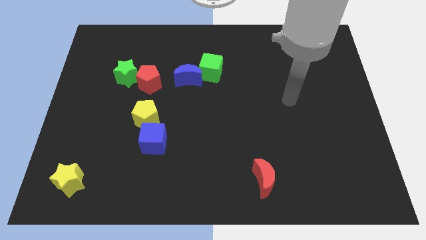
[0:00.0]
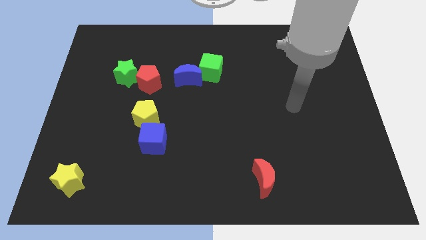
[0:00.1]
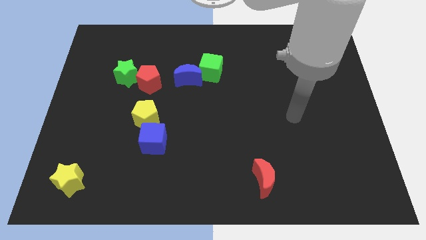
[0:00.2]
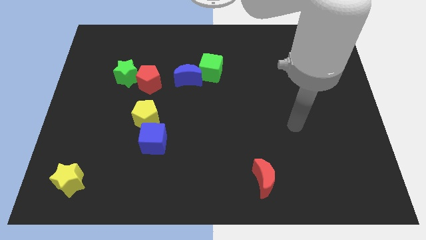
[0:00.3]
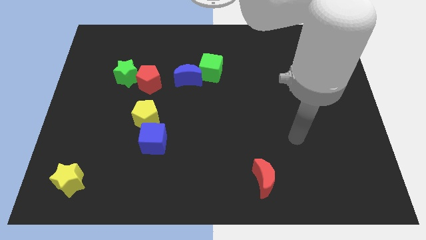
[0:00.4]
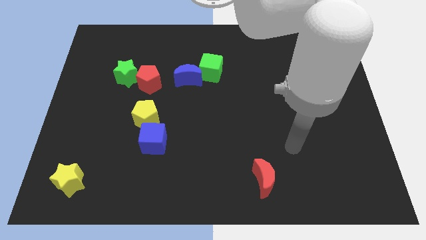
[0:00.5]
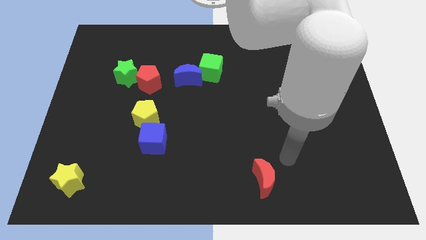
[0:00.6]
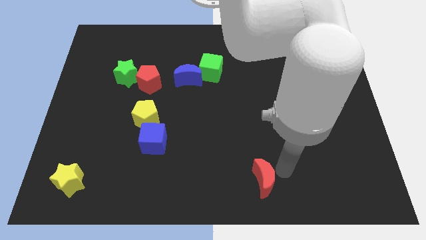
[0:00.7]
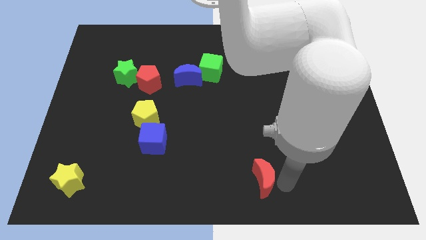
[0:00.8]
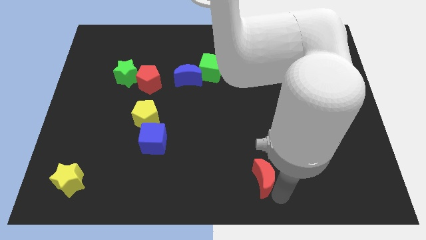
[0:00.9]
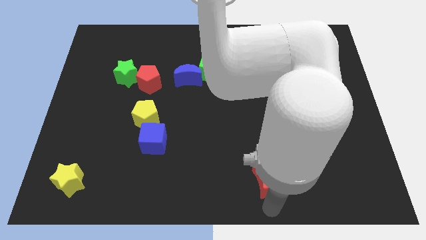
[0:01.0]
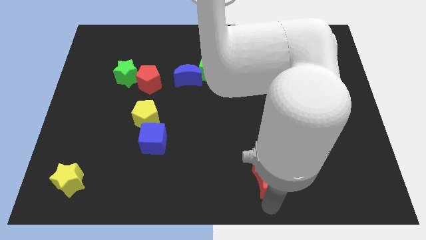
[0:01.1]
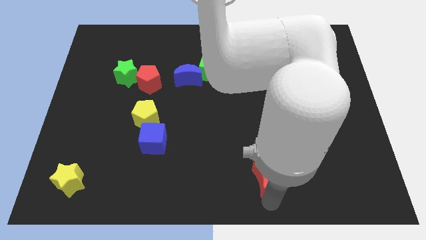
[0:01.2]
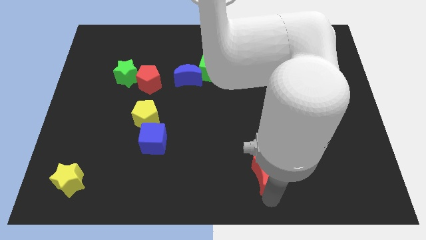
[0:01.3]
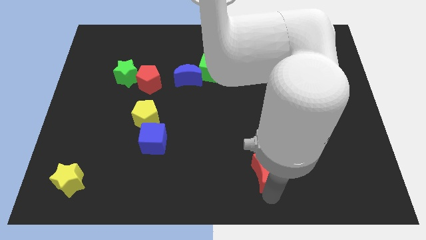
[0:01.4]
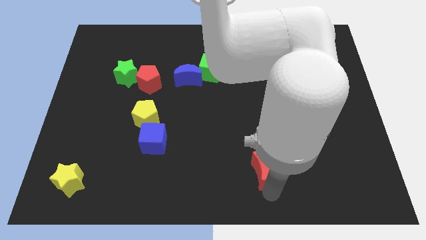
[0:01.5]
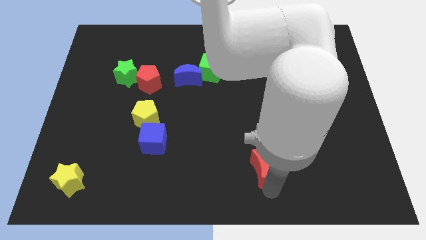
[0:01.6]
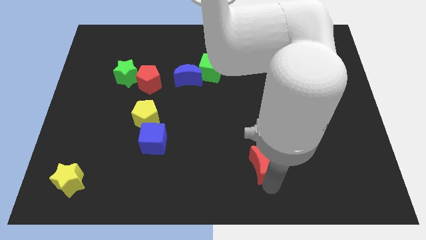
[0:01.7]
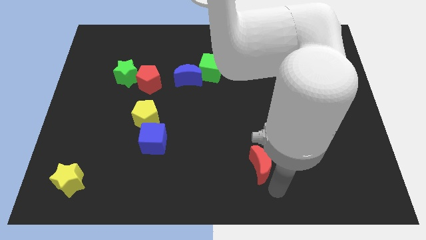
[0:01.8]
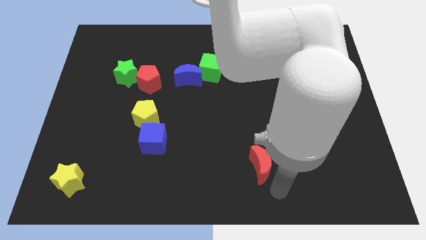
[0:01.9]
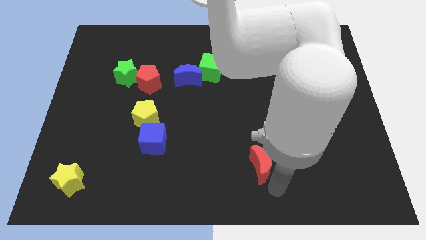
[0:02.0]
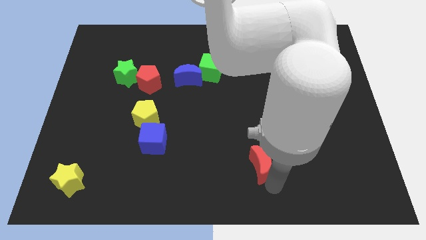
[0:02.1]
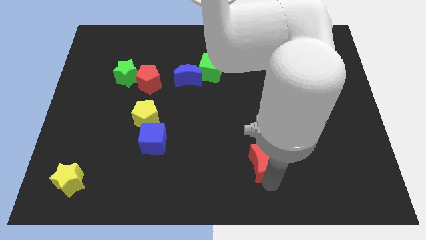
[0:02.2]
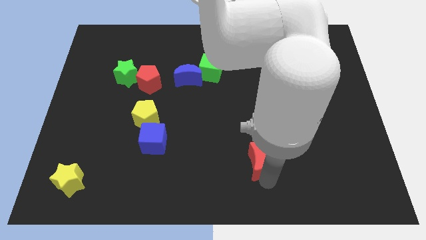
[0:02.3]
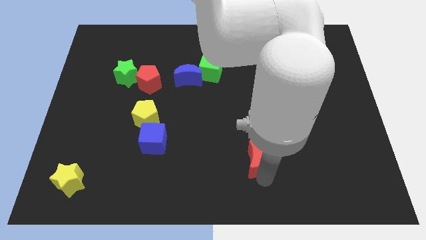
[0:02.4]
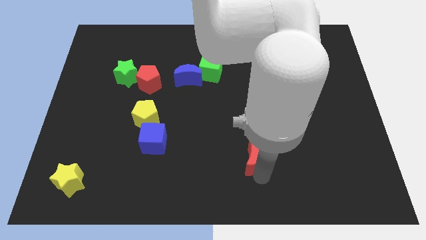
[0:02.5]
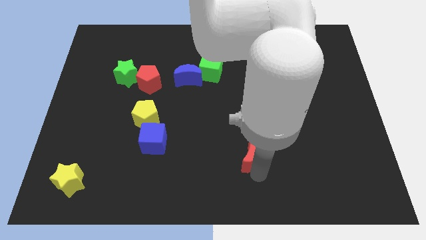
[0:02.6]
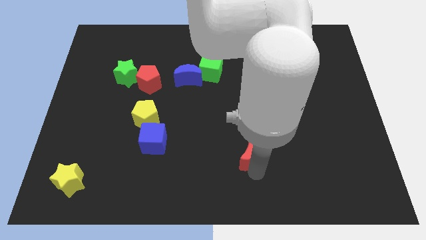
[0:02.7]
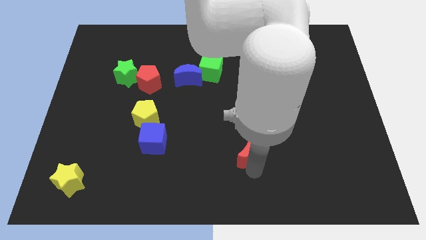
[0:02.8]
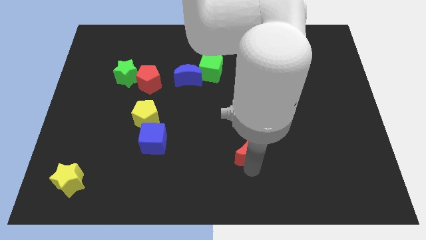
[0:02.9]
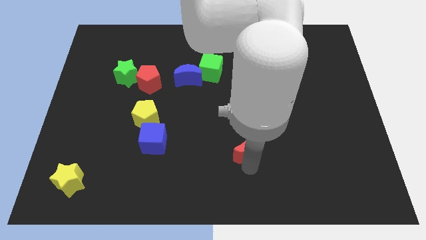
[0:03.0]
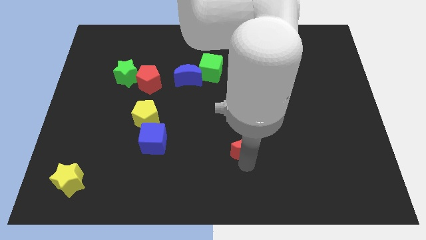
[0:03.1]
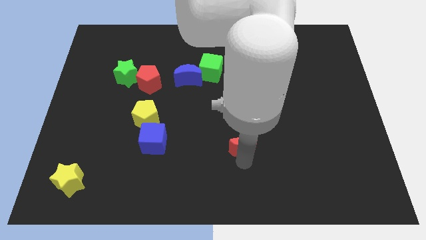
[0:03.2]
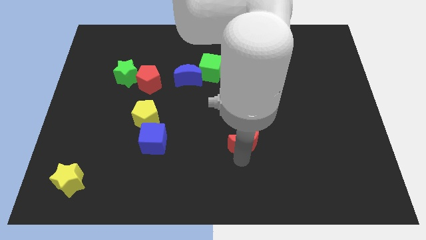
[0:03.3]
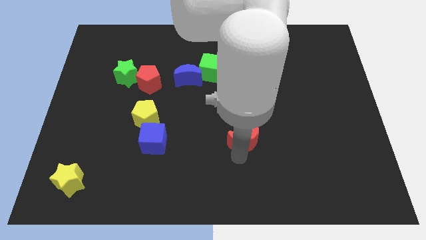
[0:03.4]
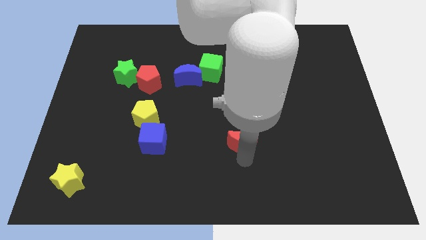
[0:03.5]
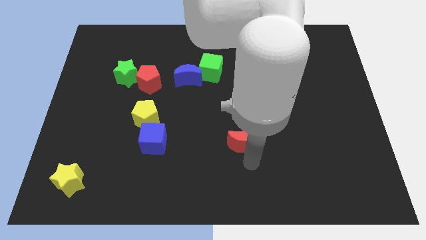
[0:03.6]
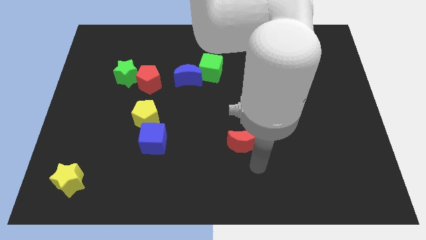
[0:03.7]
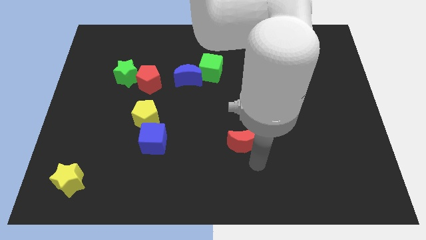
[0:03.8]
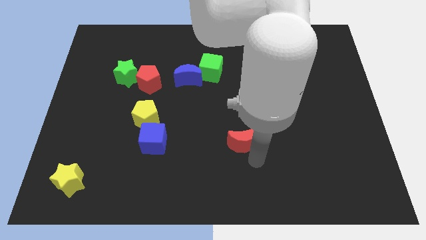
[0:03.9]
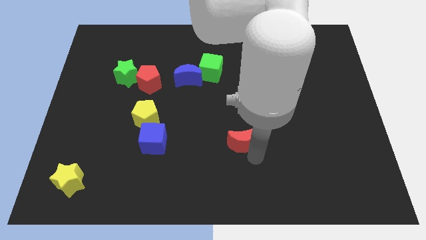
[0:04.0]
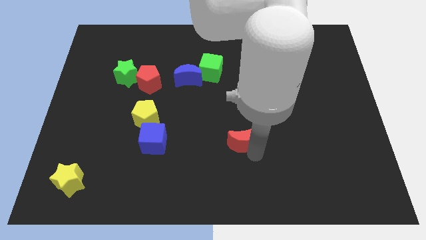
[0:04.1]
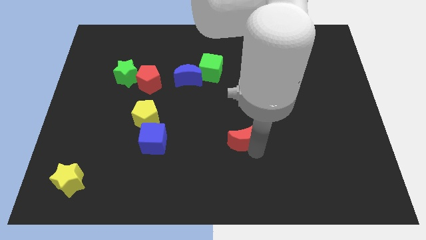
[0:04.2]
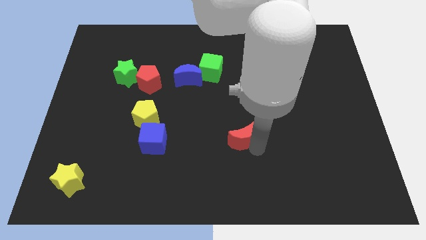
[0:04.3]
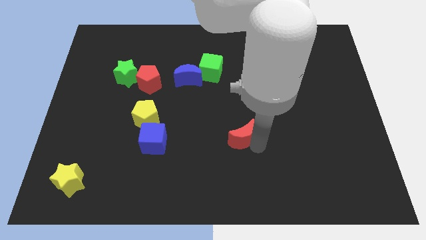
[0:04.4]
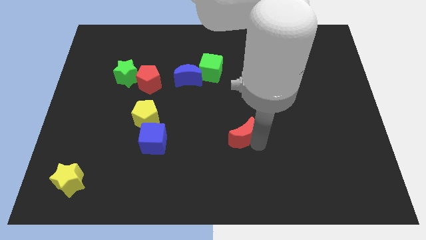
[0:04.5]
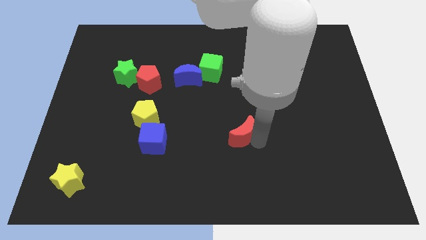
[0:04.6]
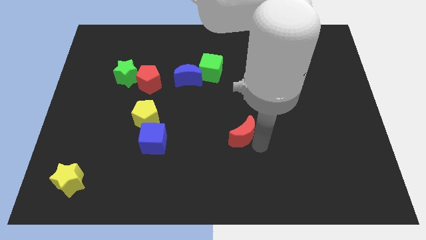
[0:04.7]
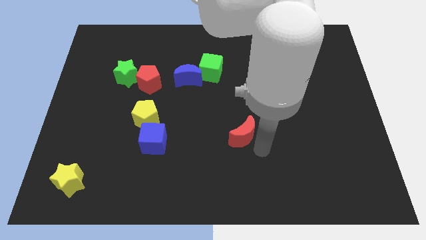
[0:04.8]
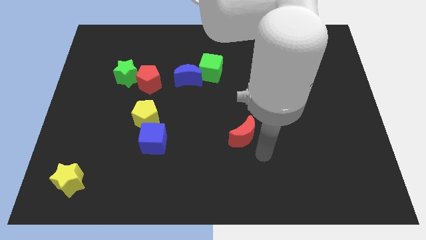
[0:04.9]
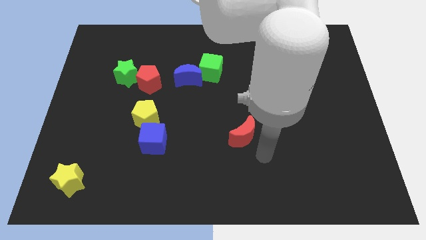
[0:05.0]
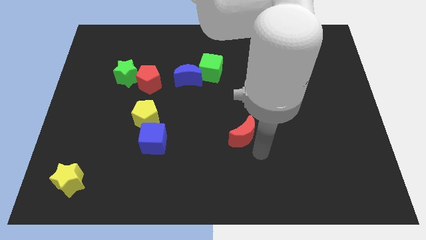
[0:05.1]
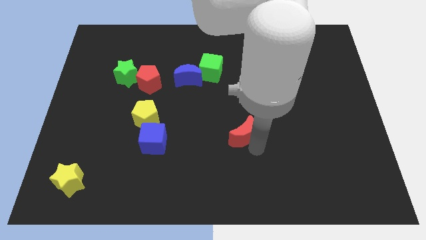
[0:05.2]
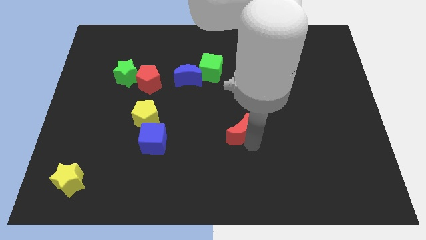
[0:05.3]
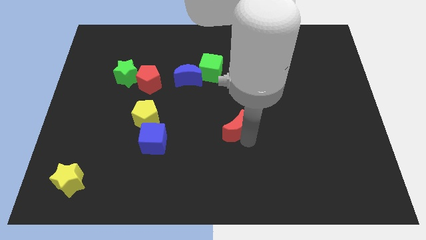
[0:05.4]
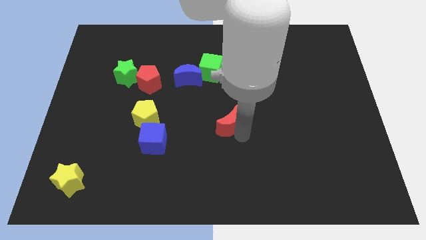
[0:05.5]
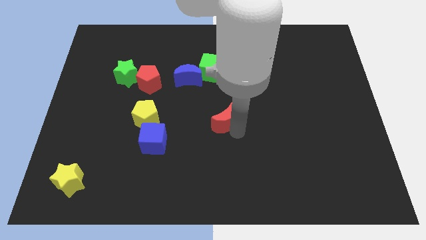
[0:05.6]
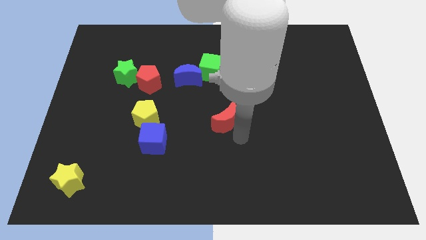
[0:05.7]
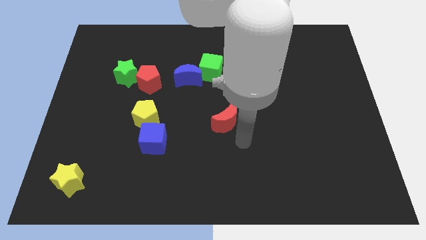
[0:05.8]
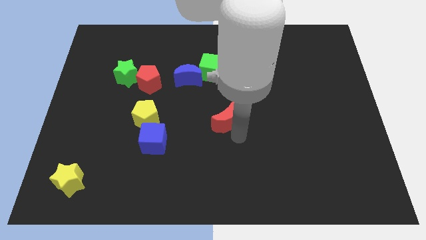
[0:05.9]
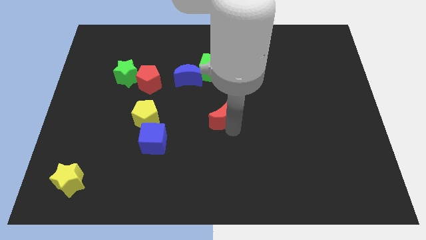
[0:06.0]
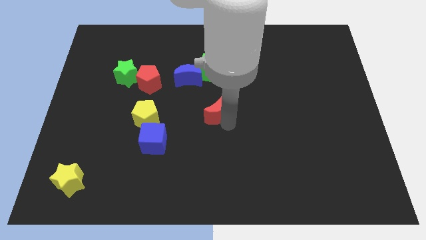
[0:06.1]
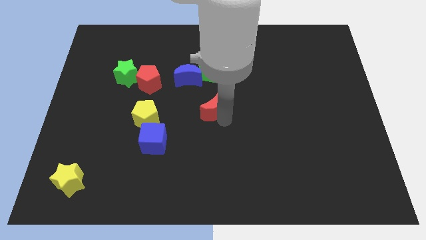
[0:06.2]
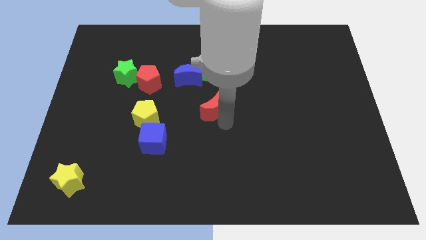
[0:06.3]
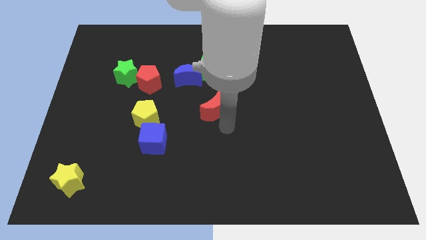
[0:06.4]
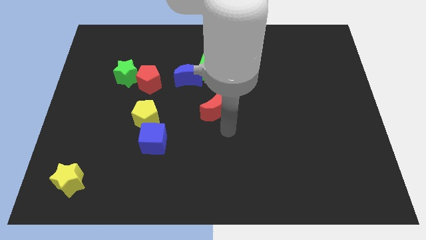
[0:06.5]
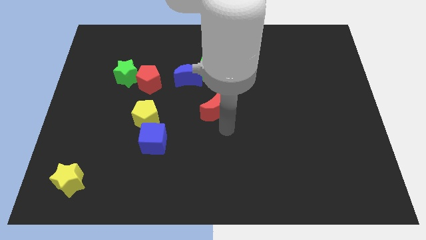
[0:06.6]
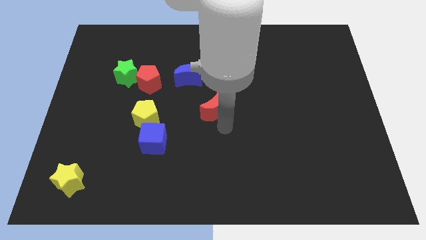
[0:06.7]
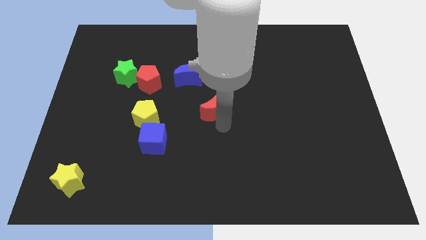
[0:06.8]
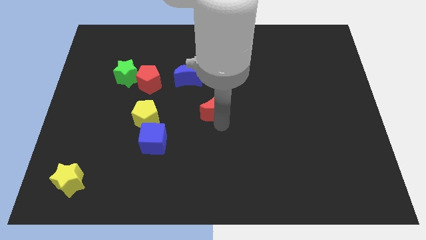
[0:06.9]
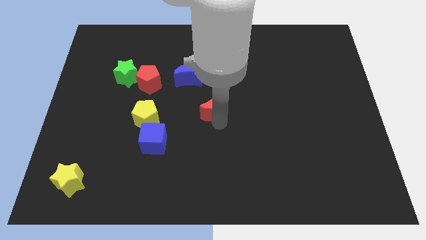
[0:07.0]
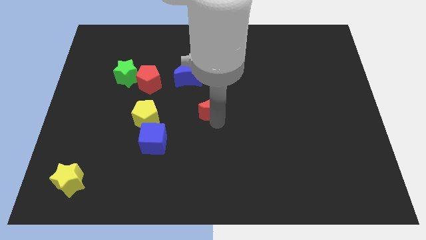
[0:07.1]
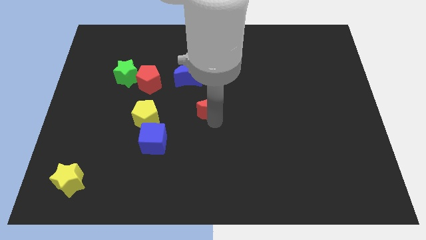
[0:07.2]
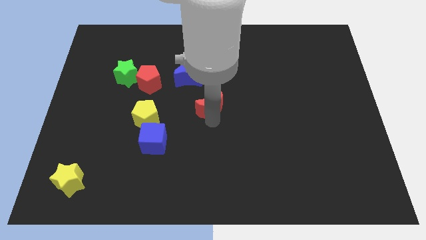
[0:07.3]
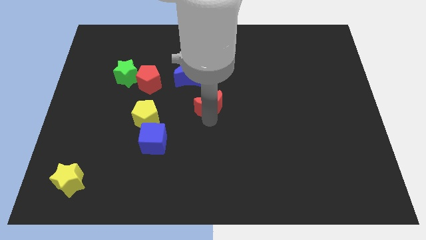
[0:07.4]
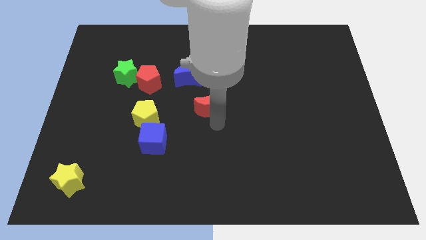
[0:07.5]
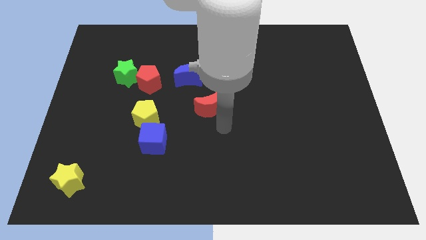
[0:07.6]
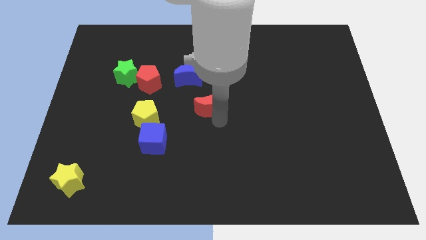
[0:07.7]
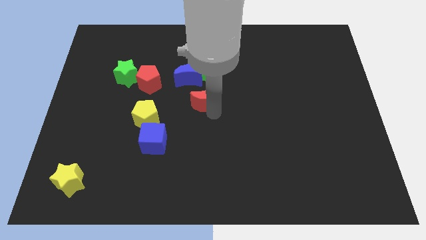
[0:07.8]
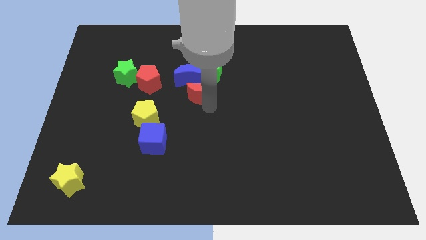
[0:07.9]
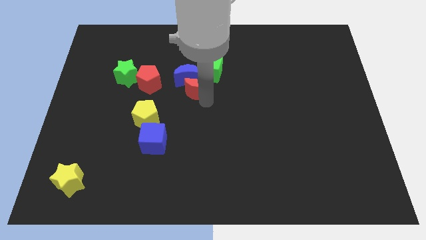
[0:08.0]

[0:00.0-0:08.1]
put the red moon close to the blue moon
